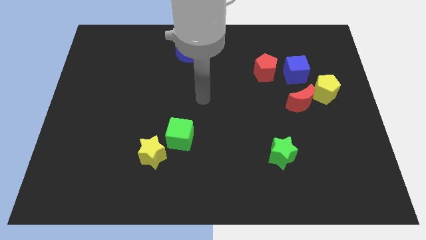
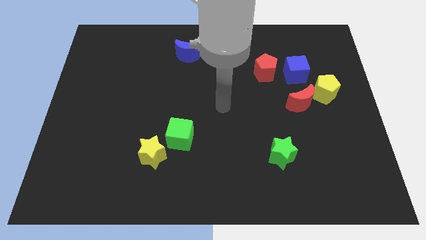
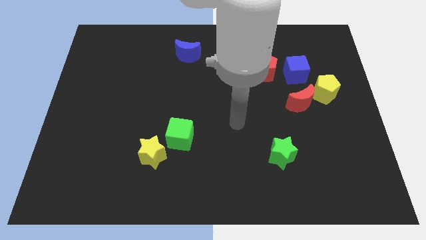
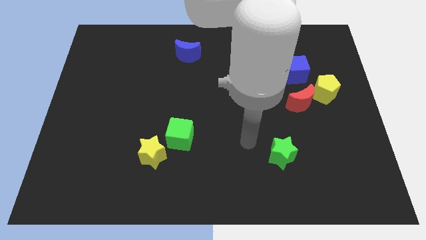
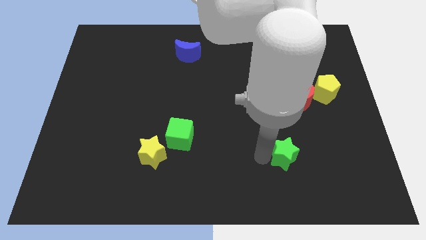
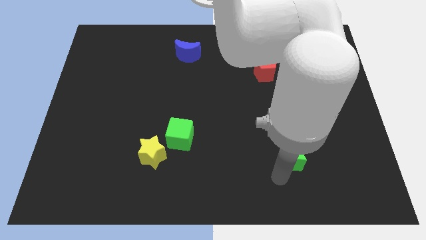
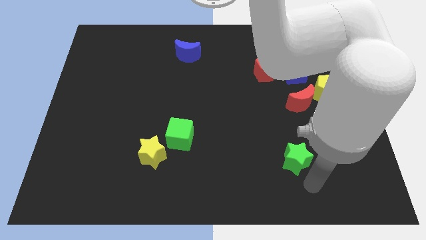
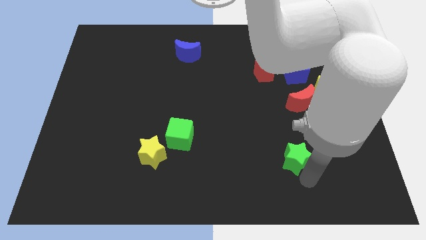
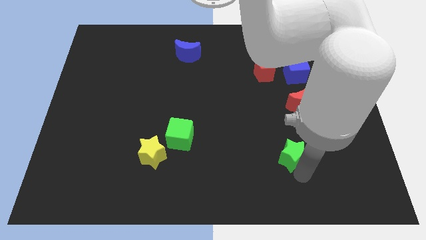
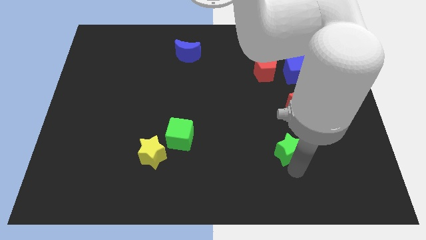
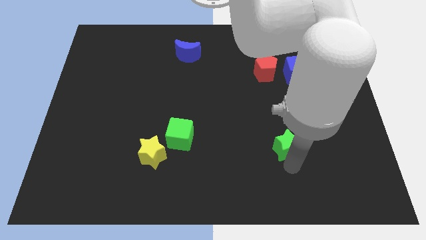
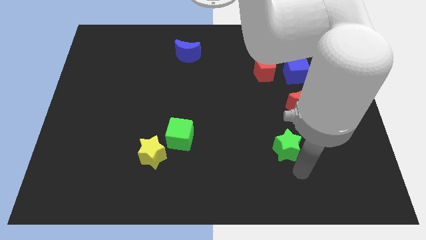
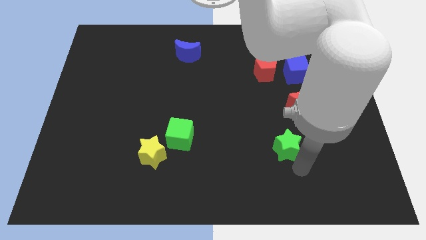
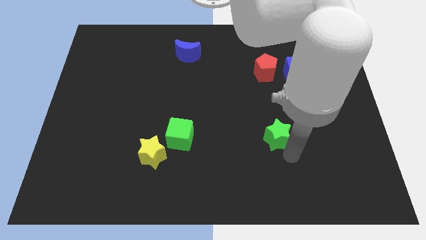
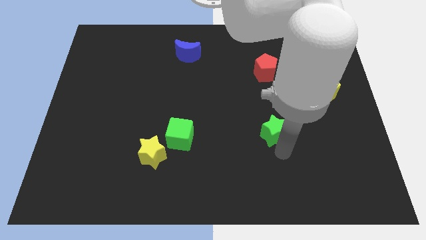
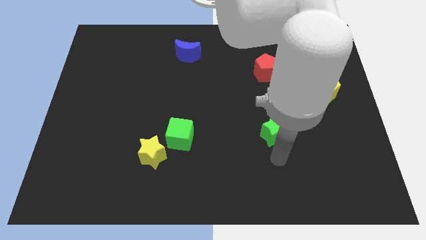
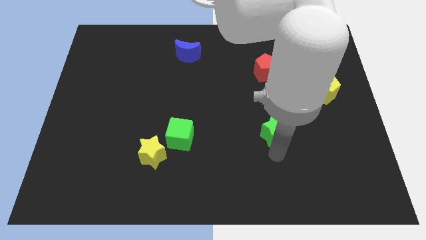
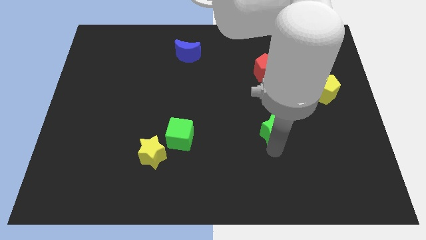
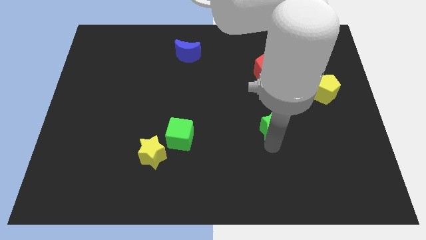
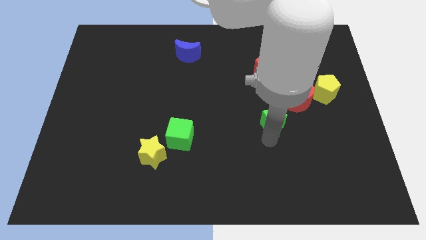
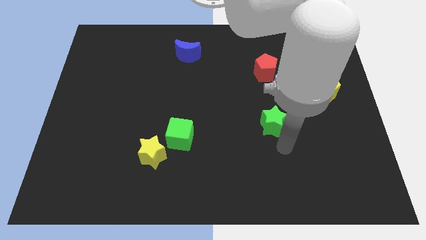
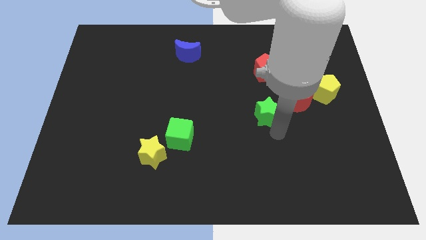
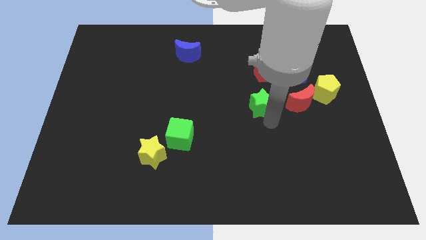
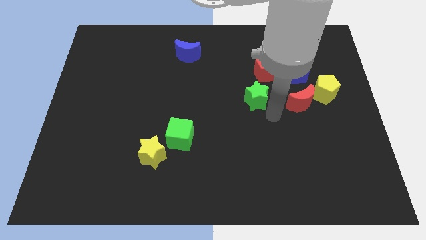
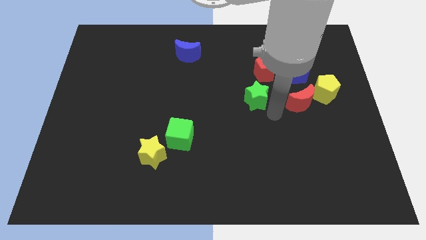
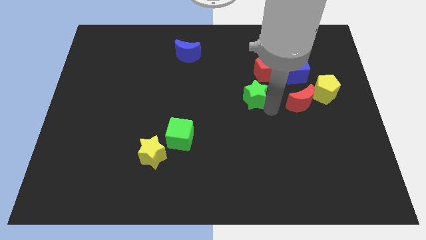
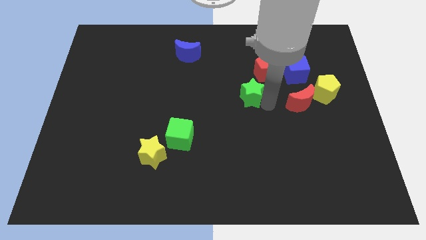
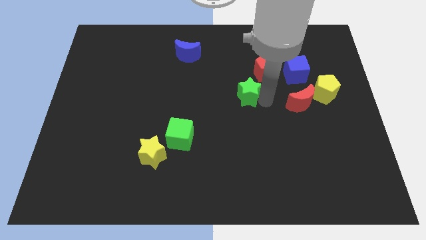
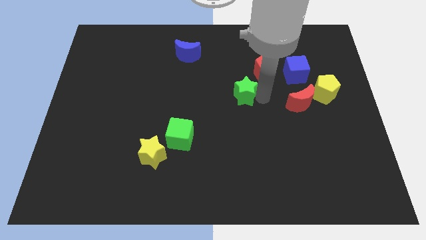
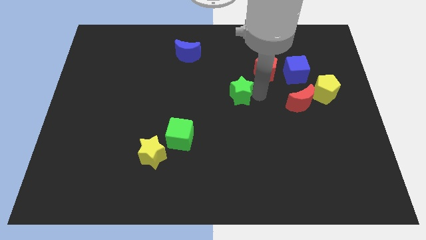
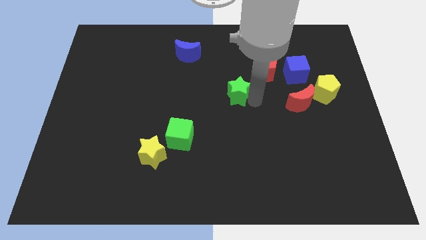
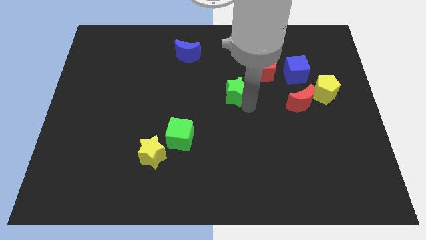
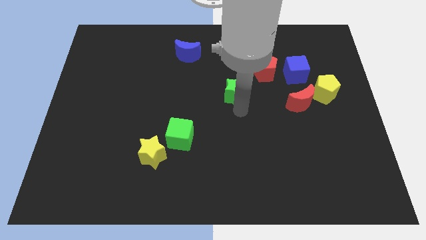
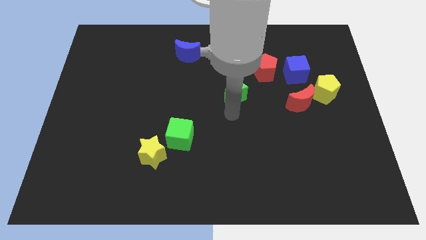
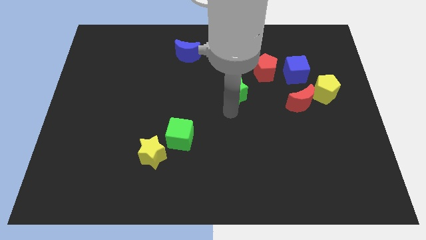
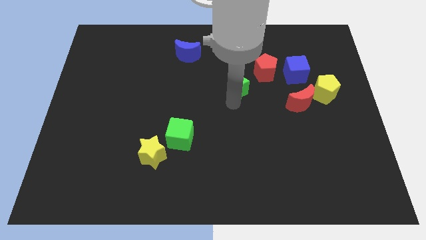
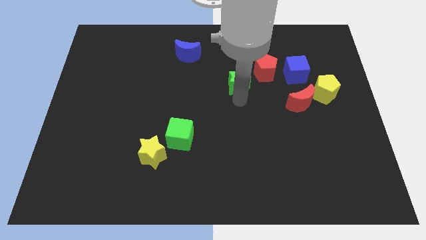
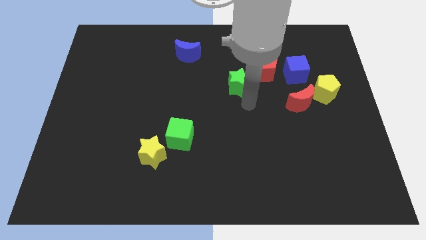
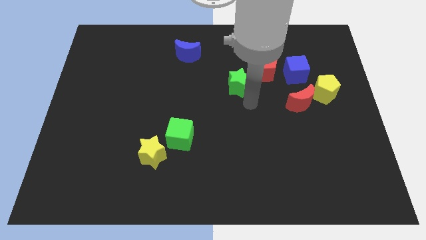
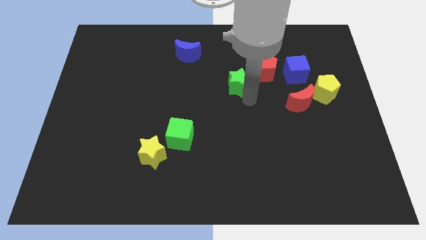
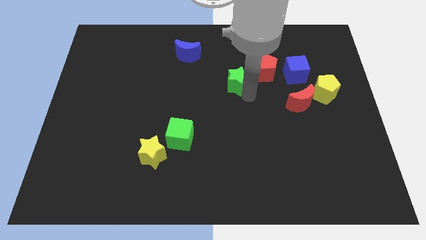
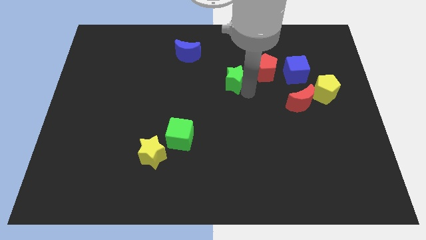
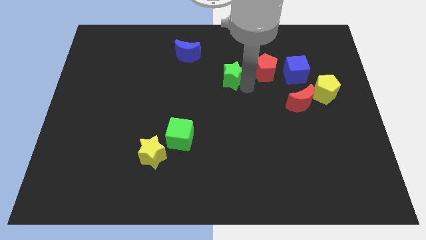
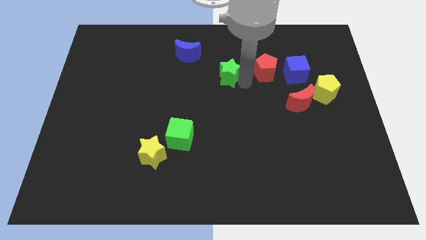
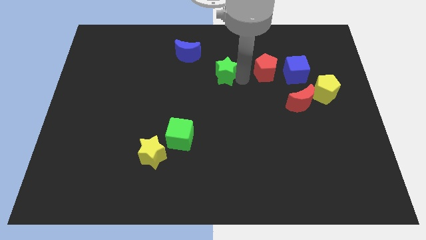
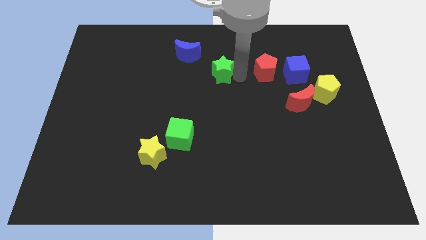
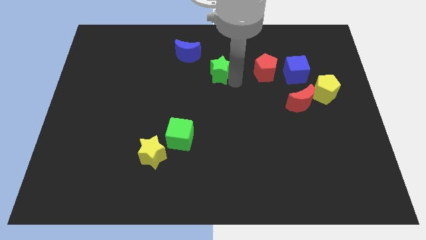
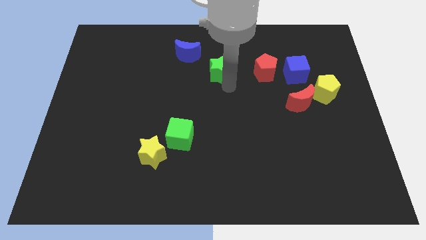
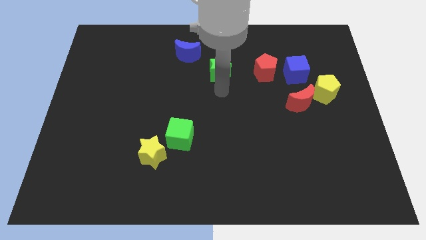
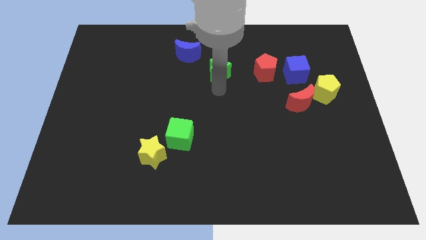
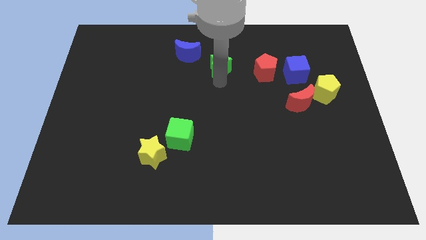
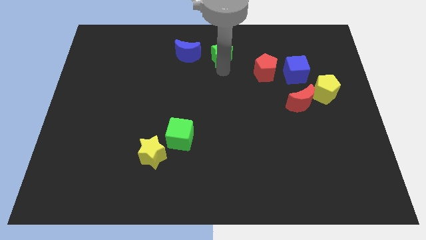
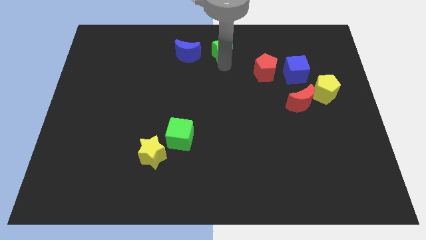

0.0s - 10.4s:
slide the green star to the top

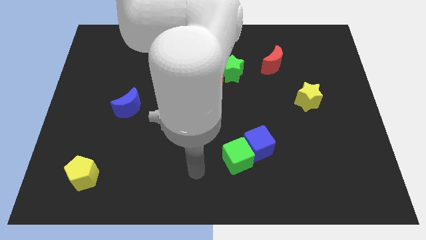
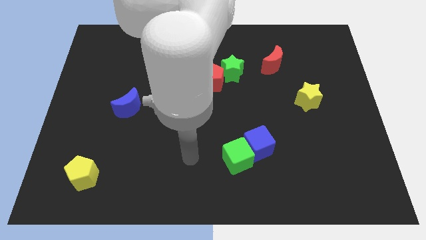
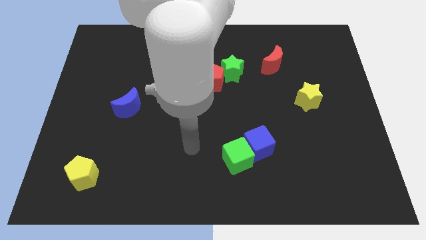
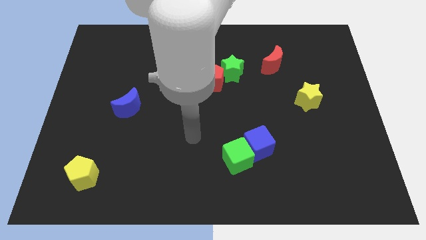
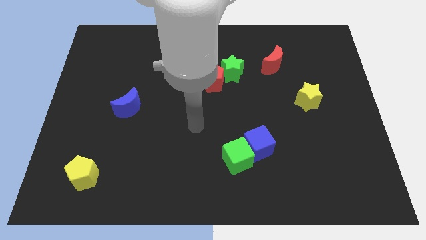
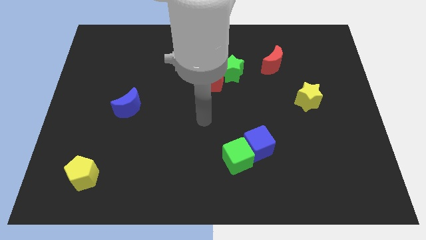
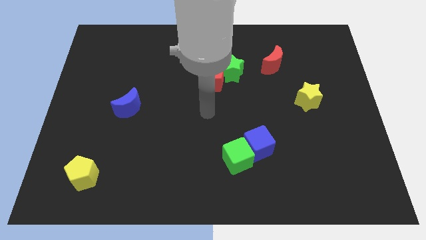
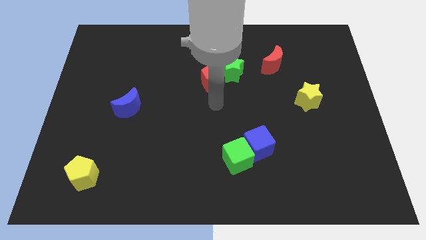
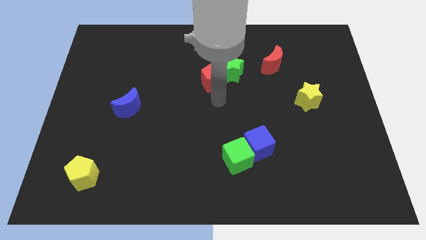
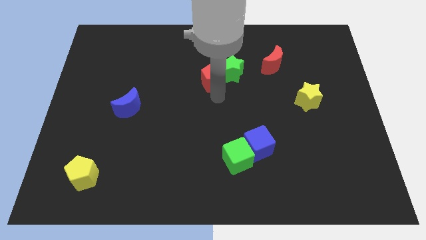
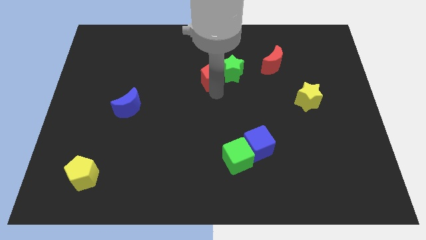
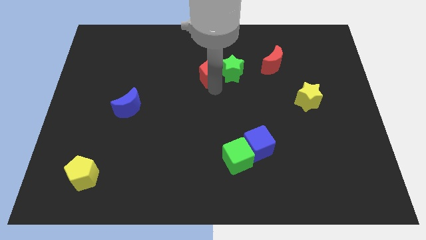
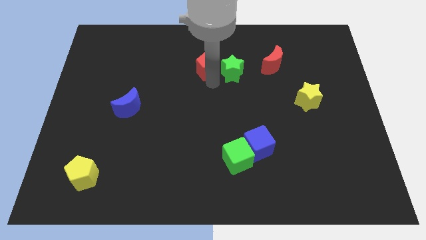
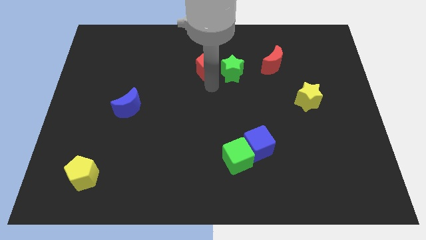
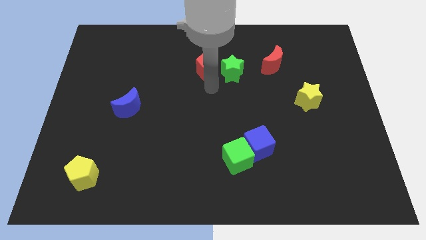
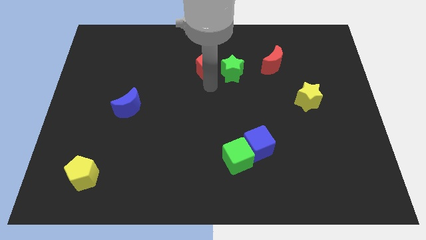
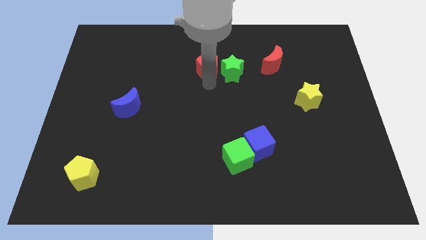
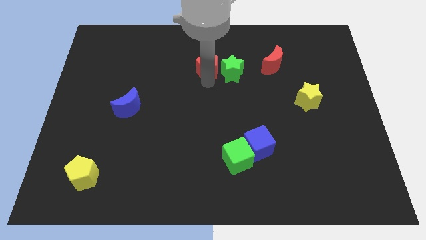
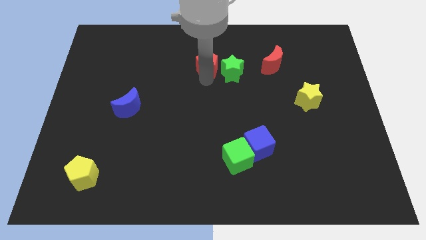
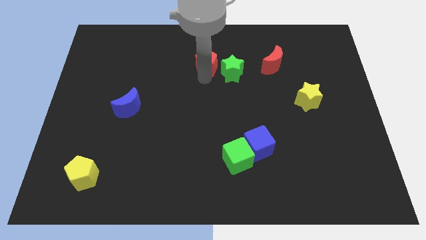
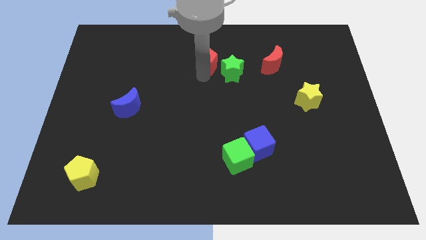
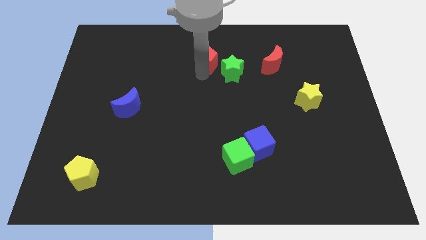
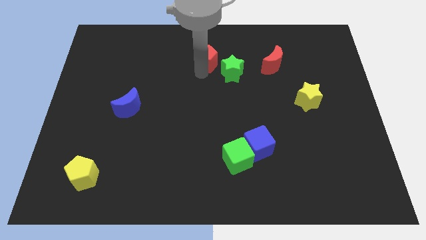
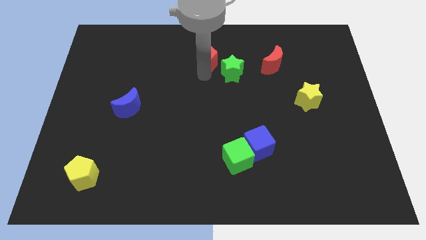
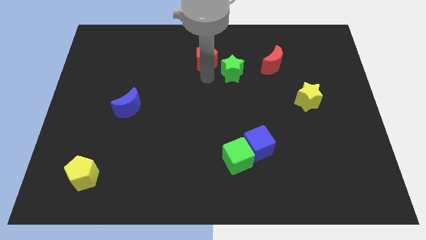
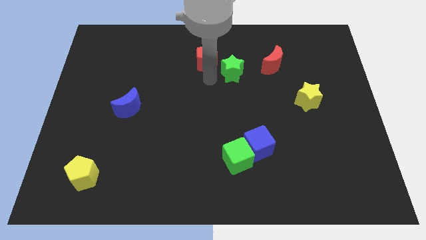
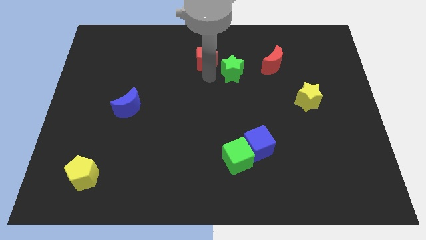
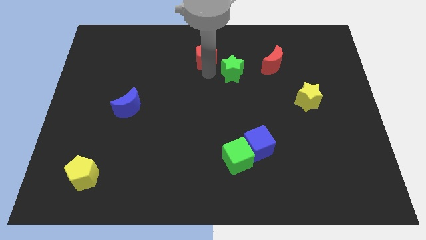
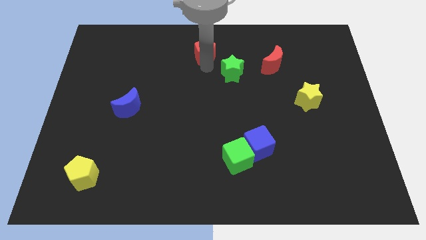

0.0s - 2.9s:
push the red pentagon to the towards your base
